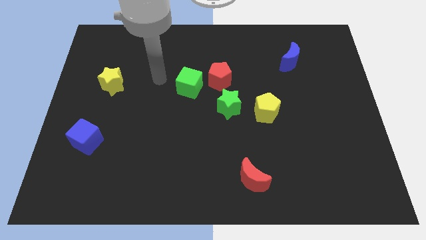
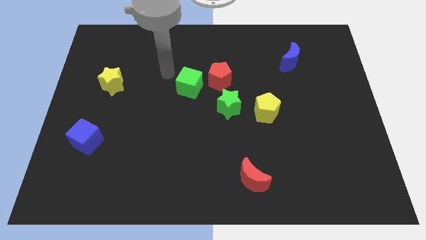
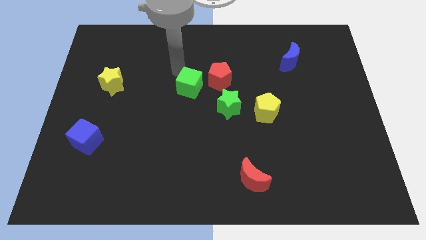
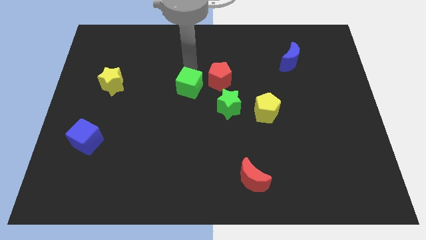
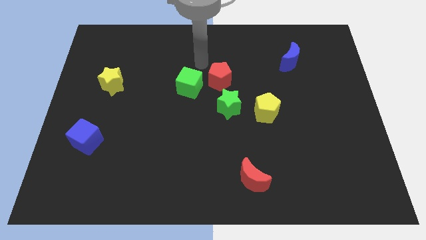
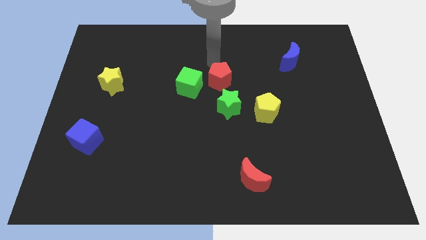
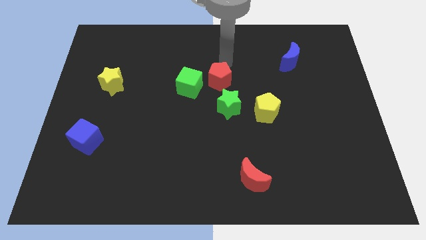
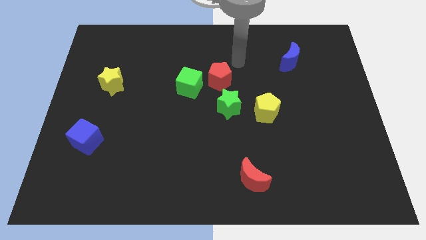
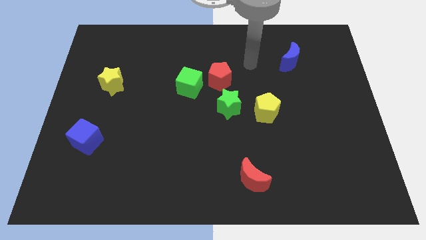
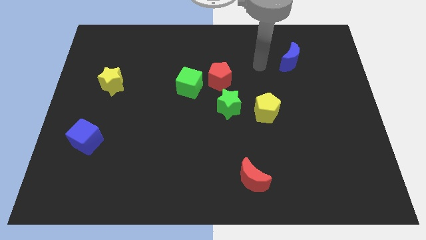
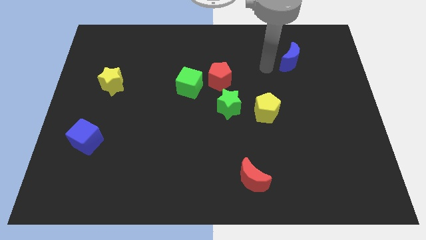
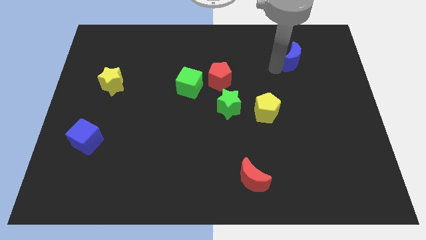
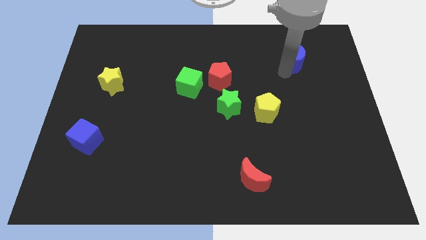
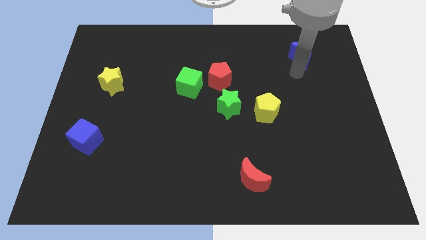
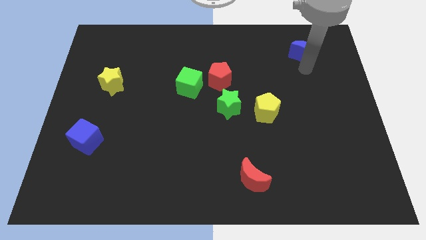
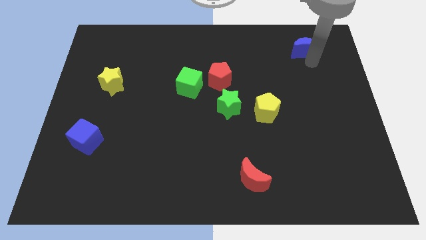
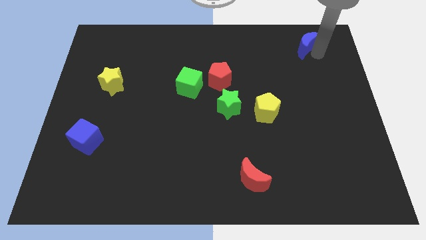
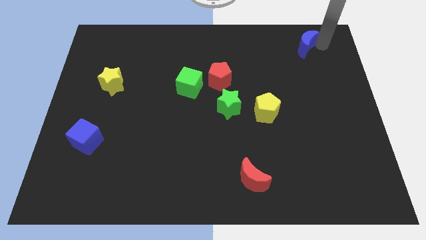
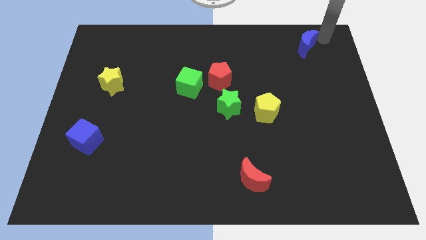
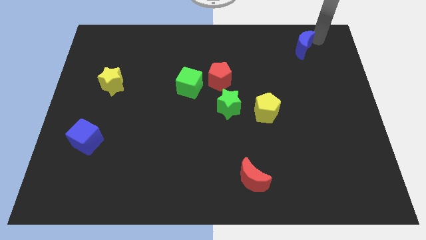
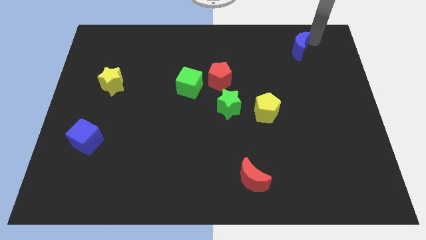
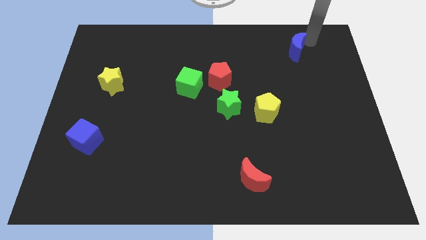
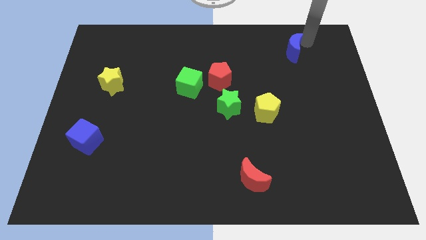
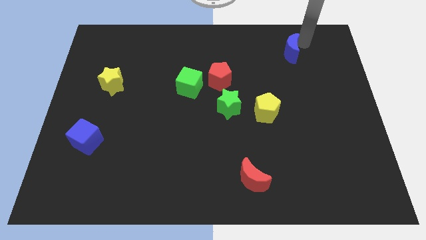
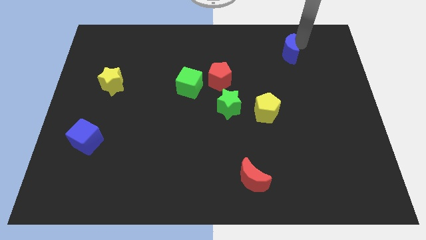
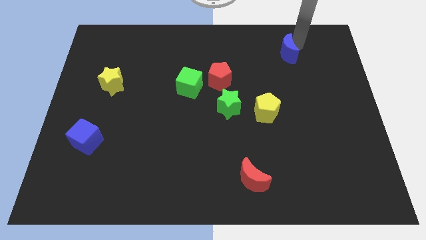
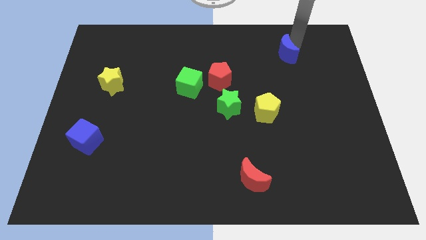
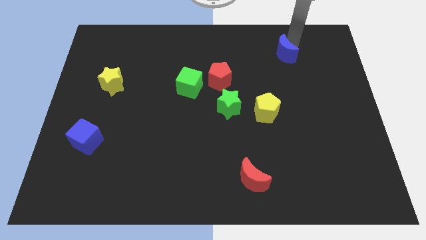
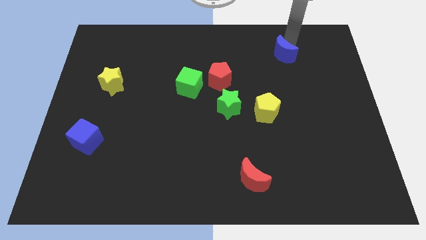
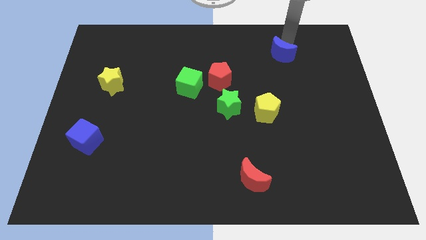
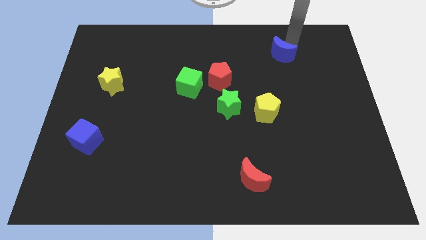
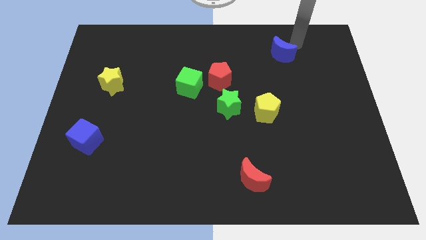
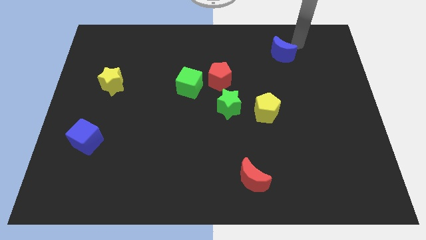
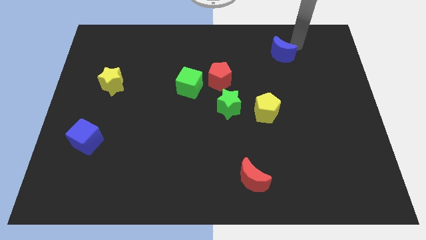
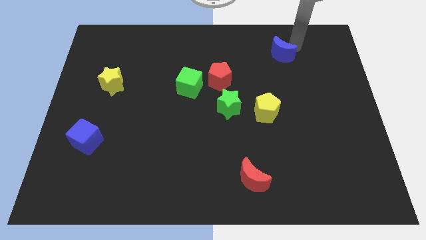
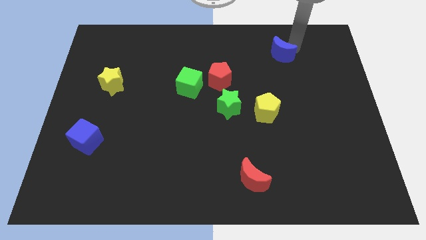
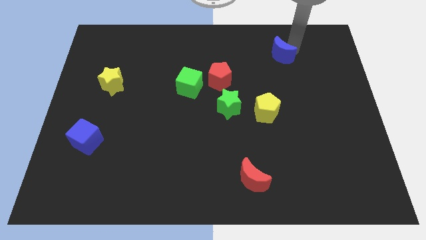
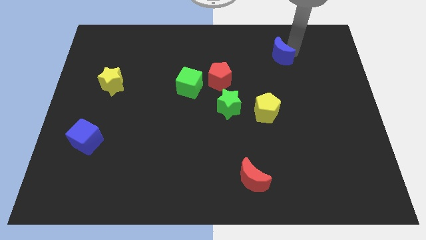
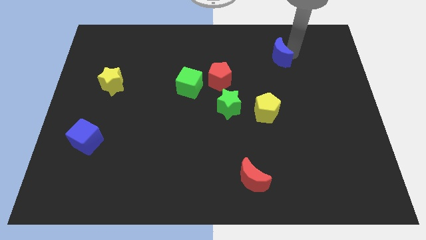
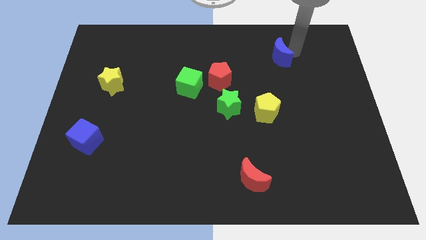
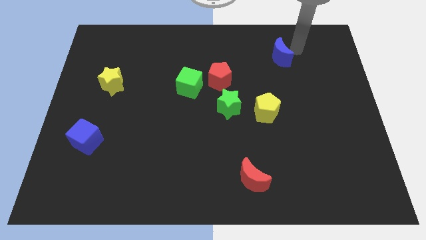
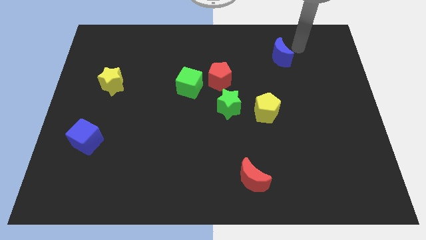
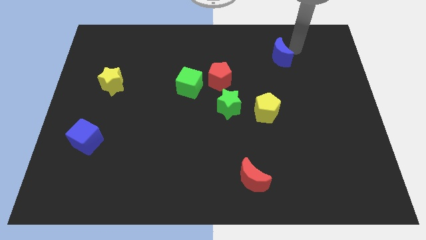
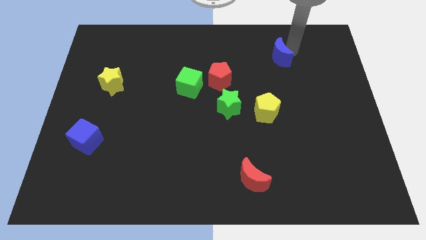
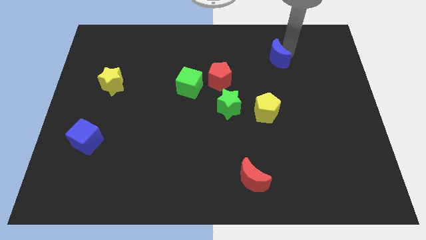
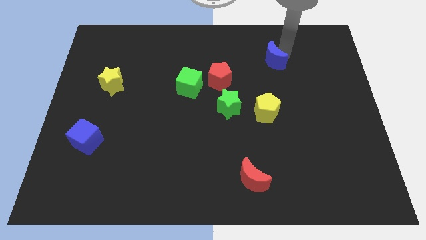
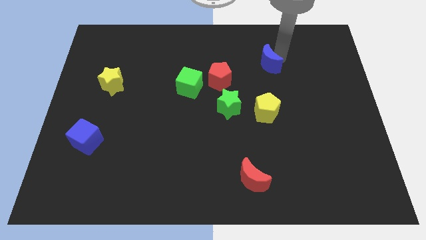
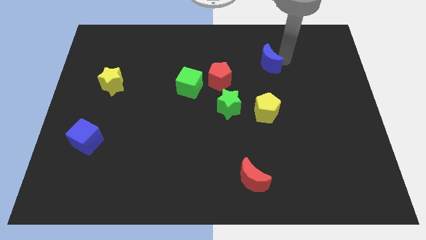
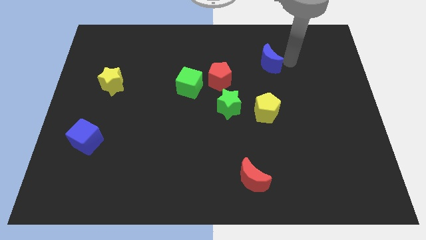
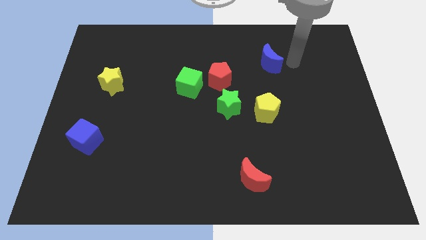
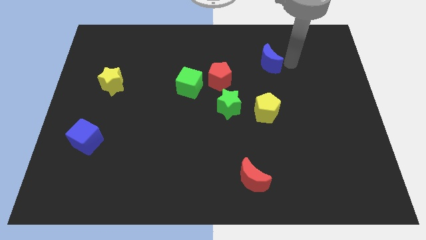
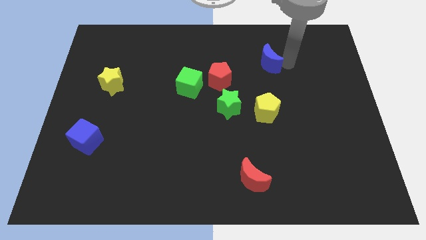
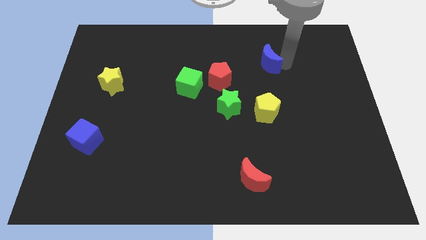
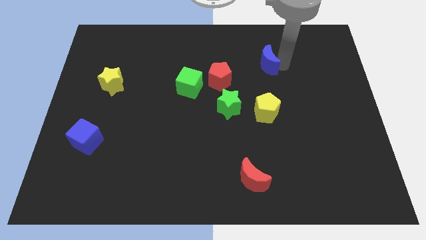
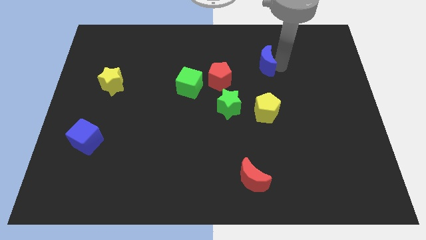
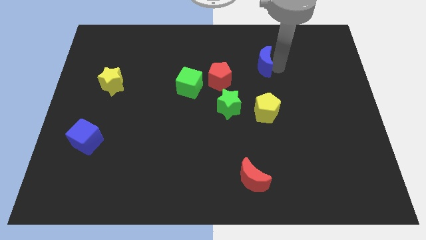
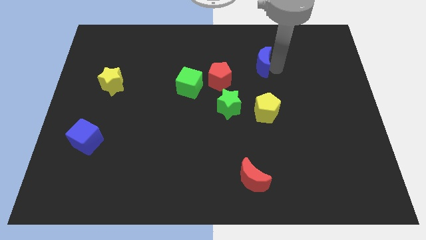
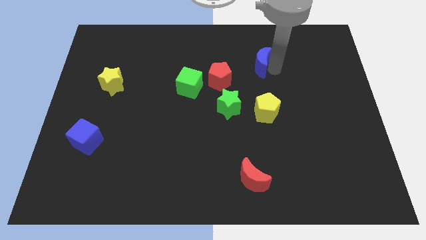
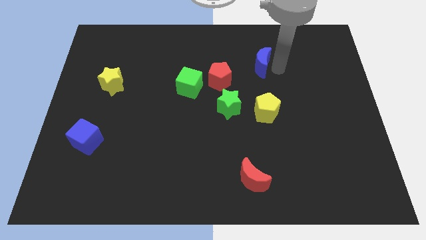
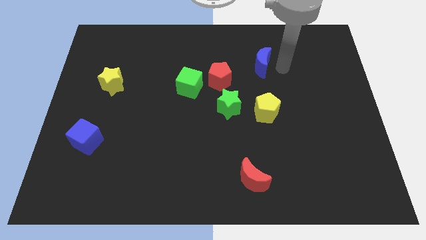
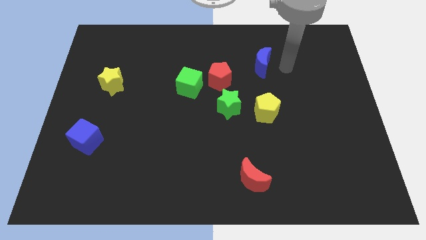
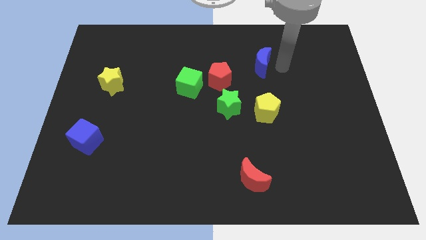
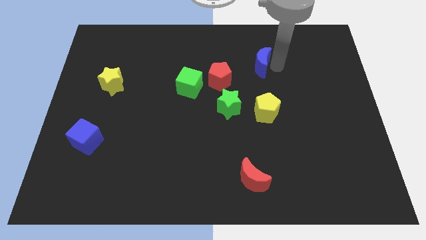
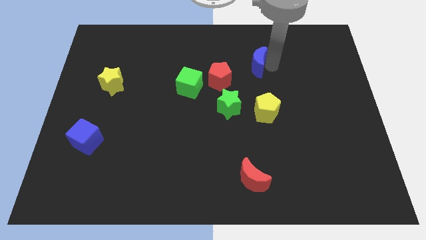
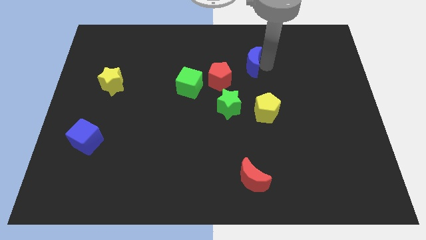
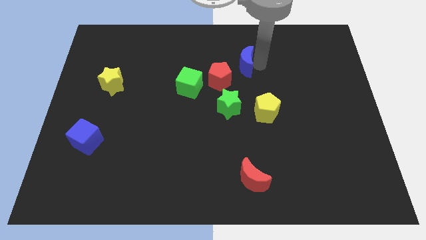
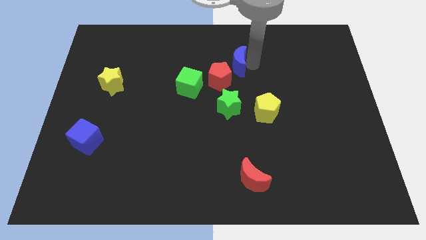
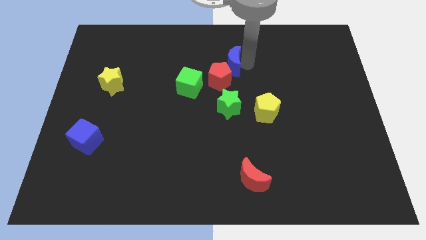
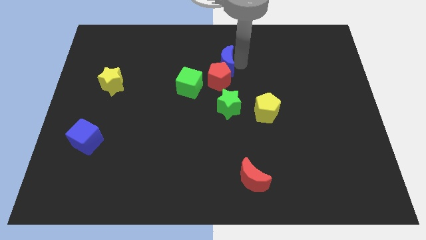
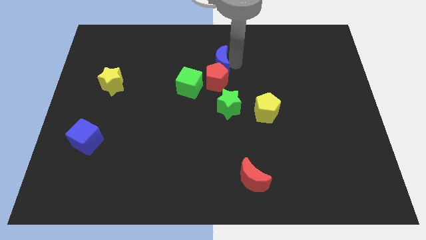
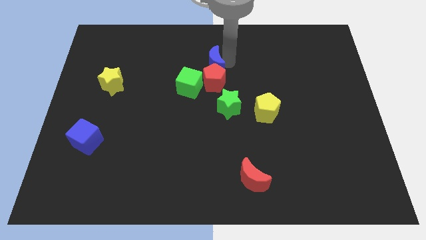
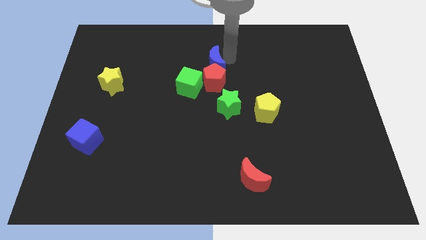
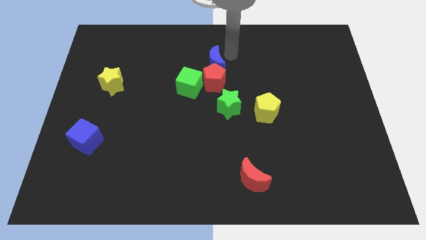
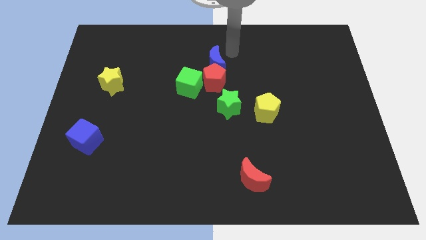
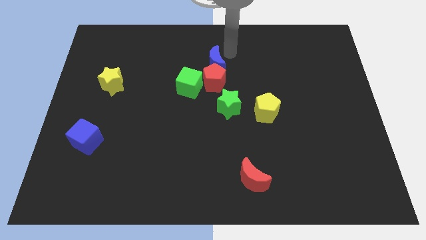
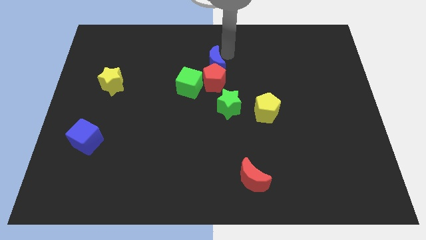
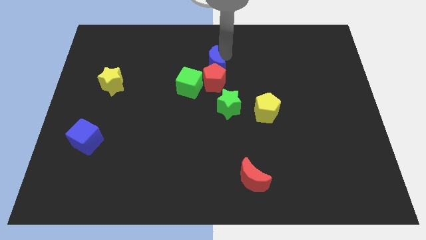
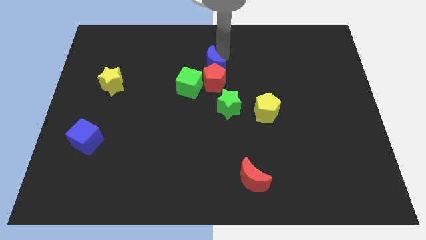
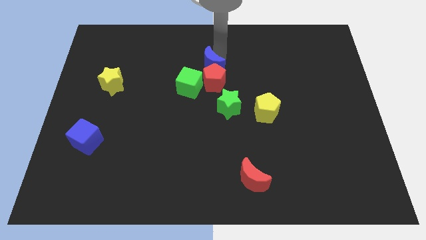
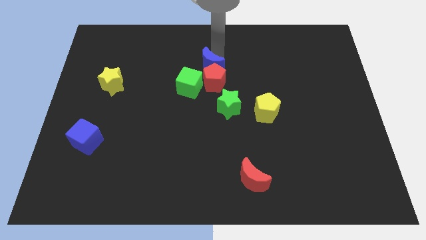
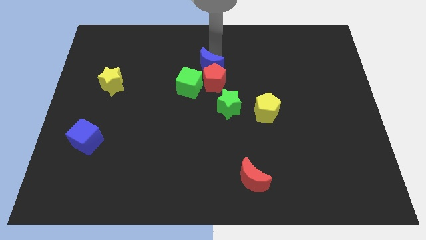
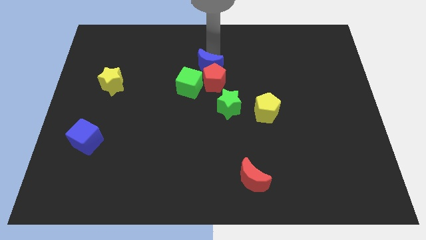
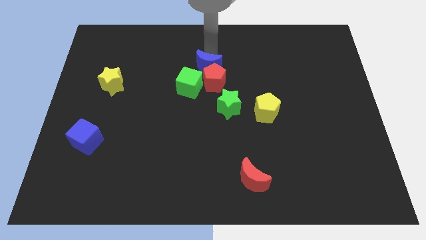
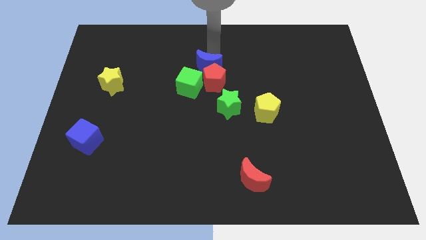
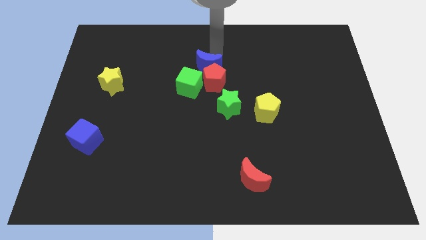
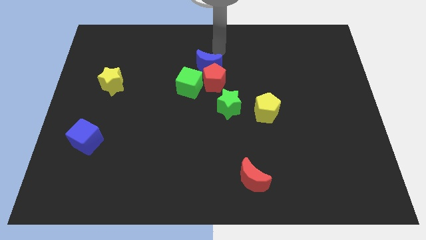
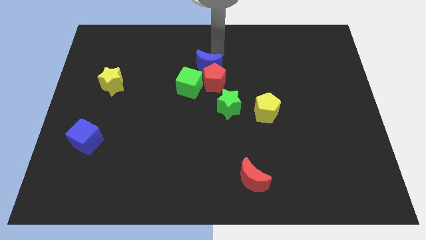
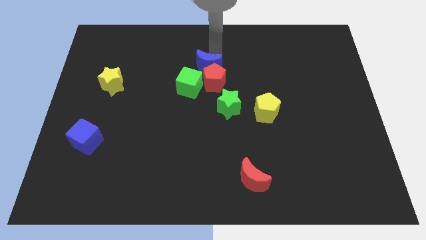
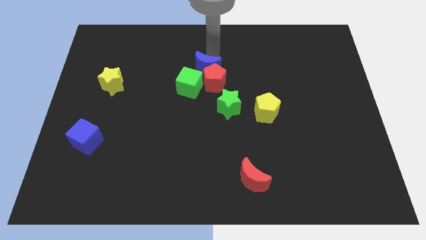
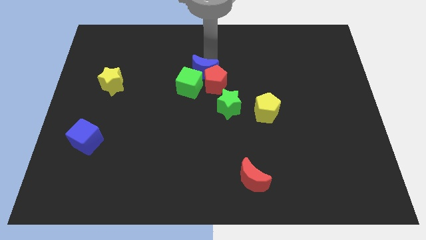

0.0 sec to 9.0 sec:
slide the blue moon to the green cube
